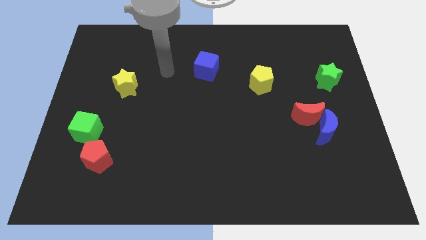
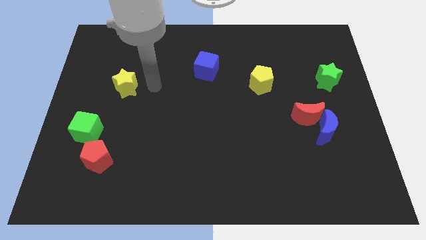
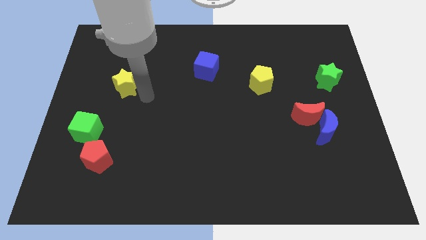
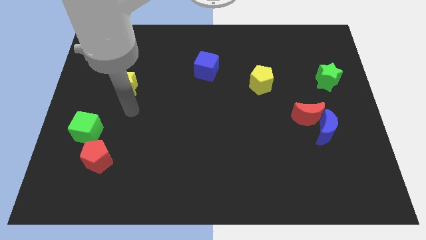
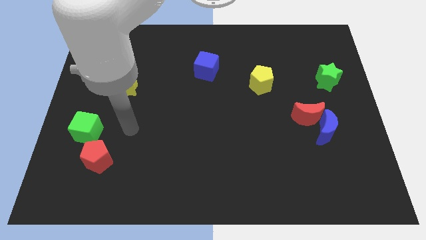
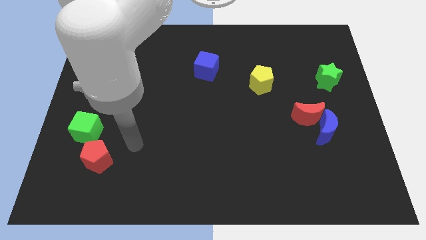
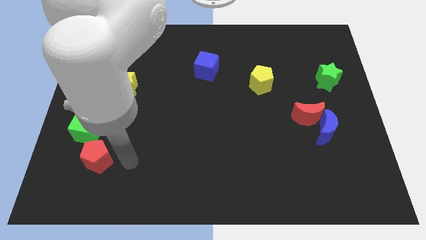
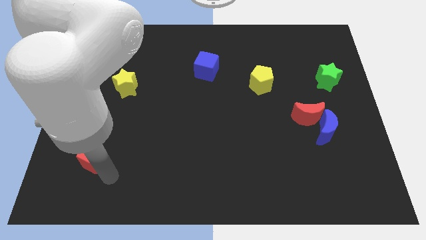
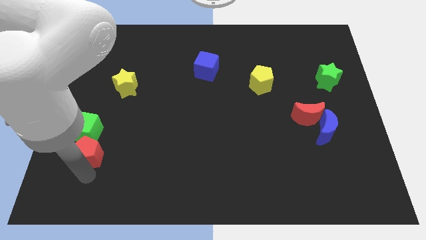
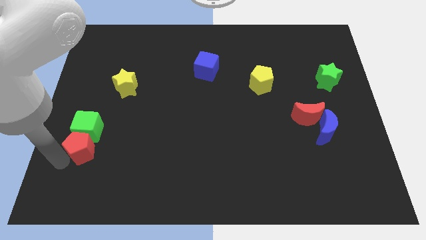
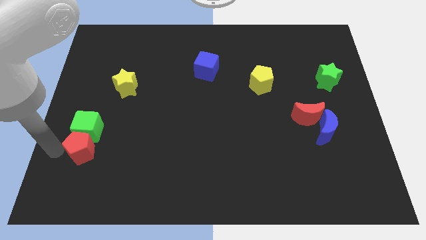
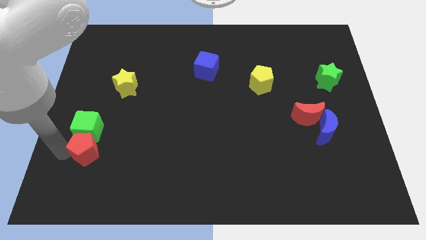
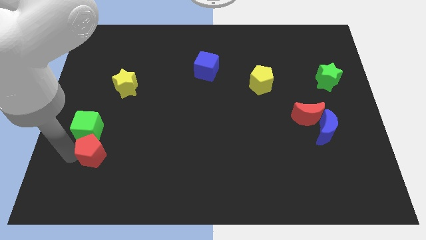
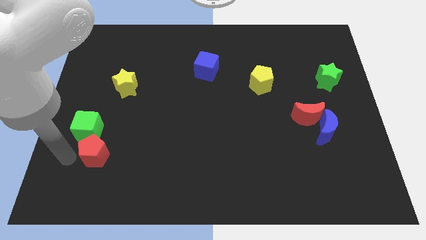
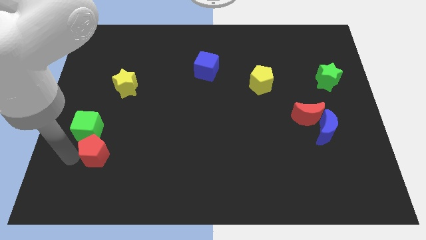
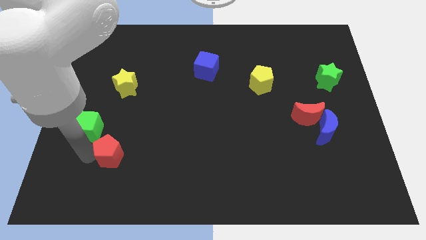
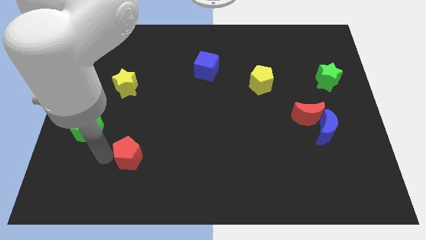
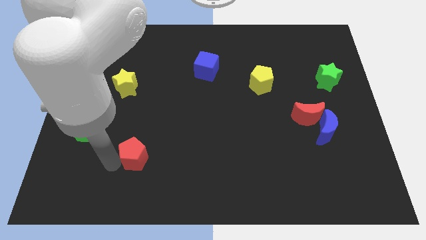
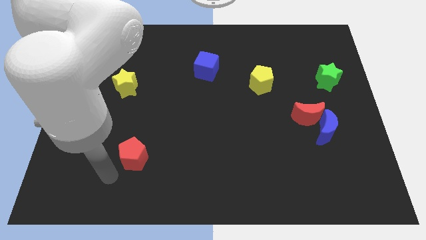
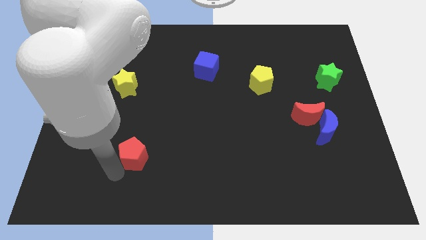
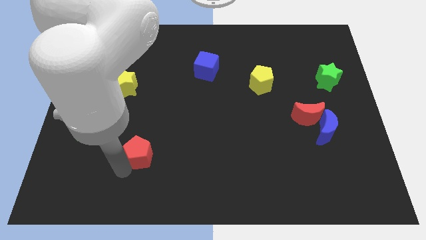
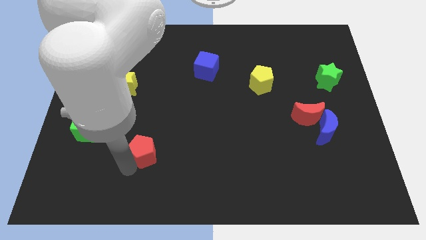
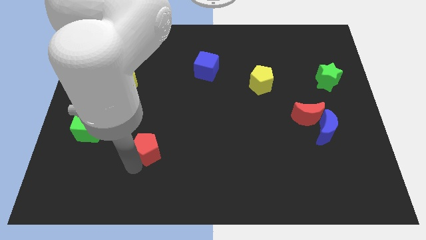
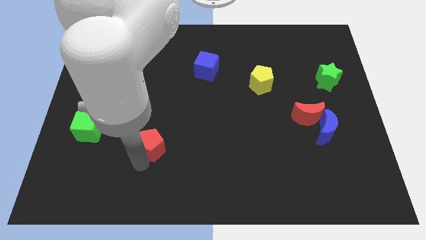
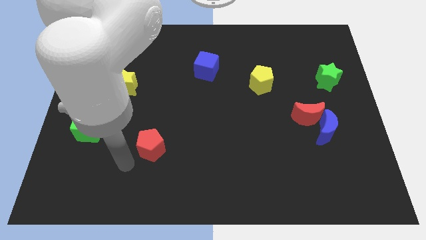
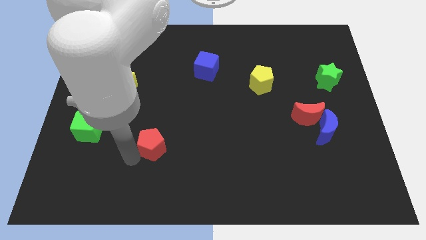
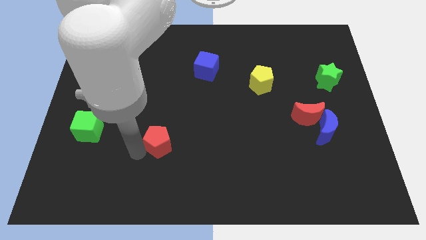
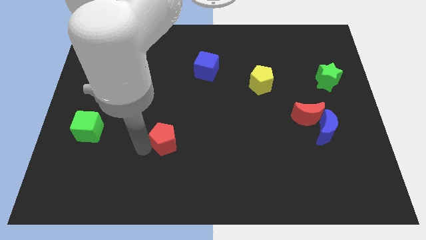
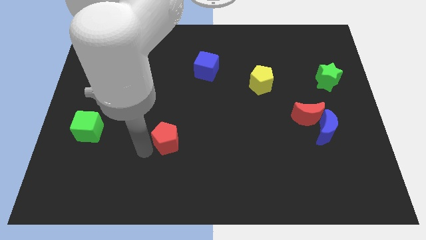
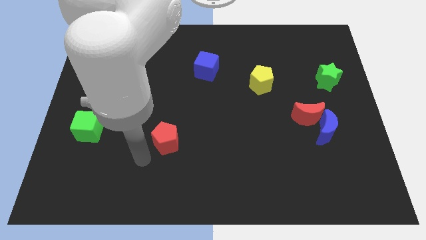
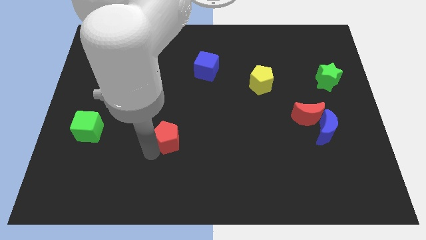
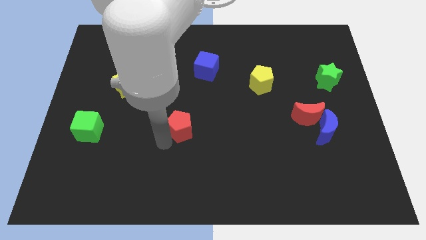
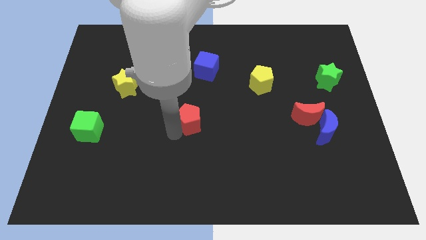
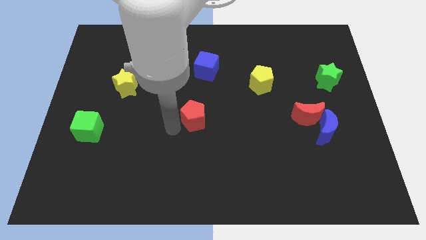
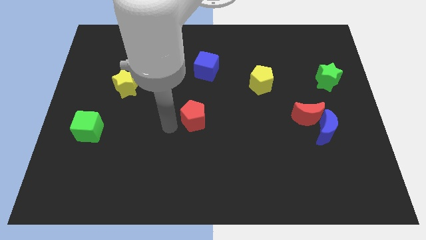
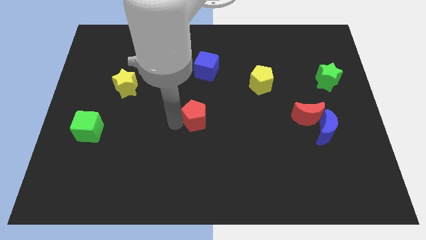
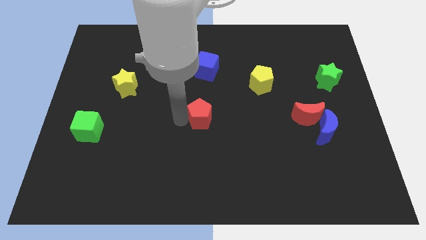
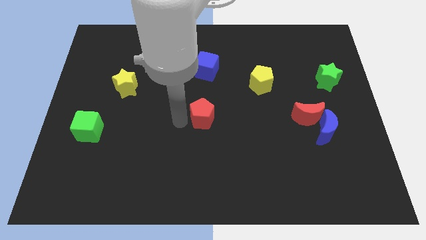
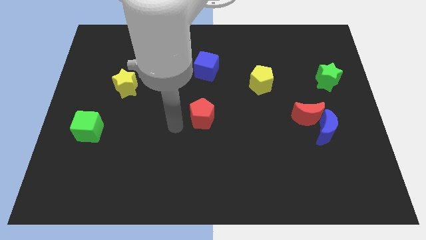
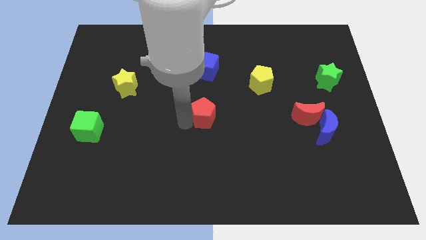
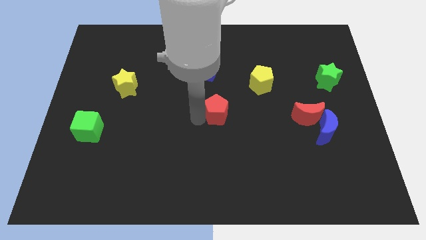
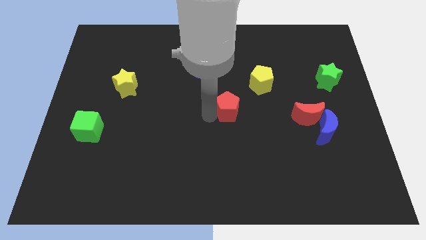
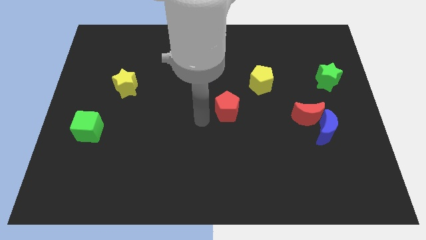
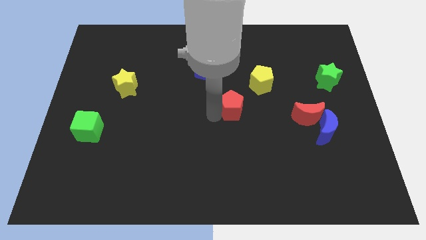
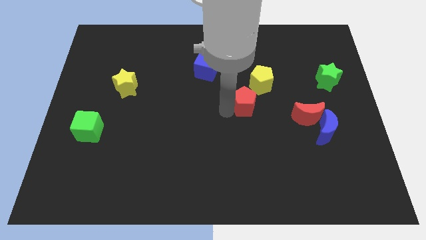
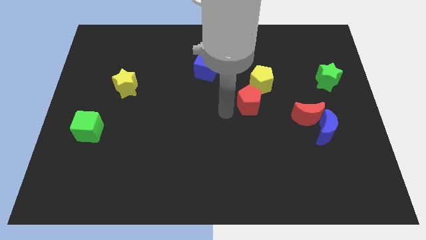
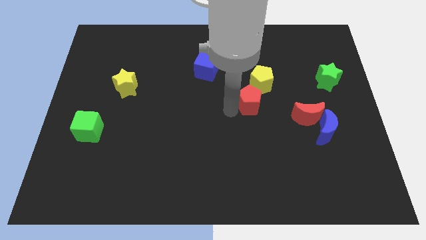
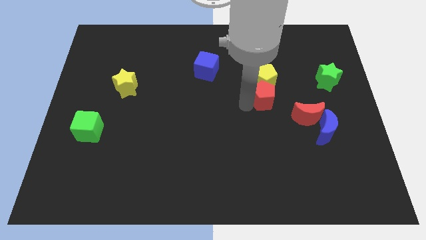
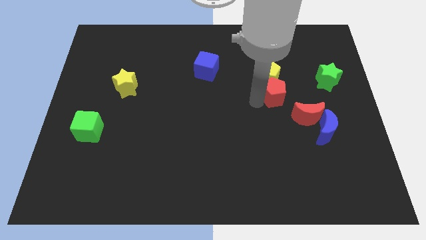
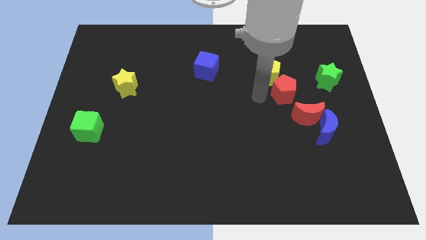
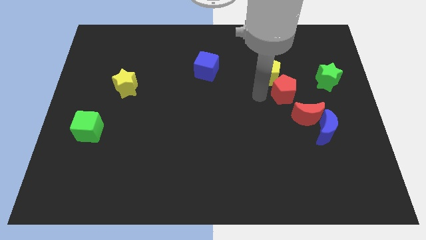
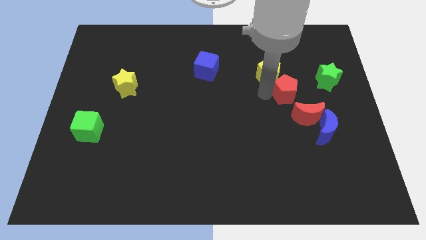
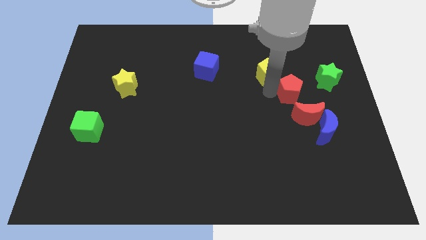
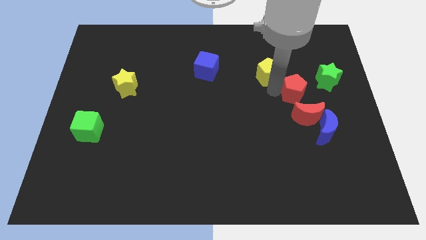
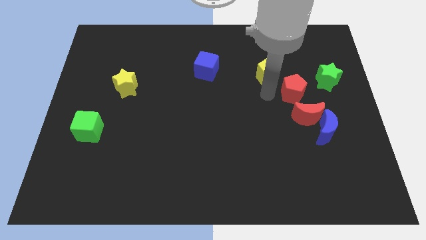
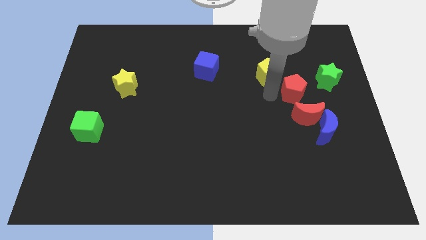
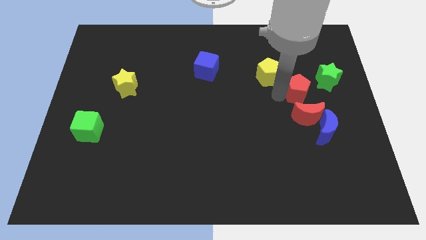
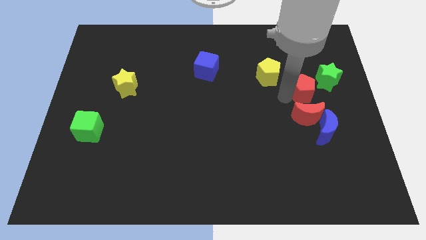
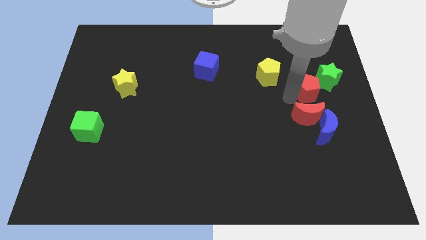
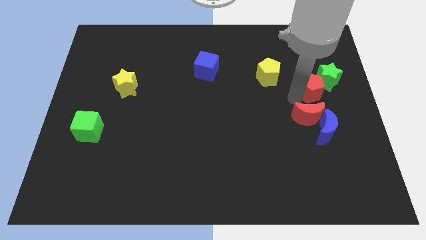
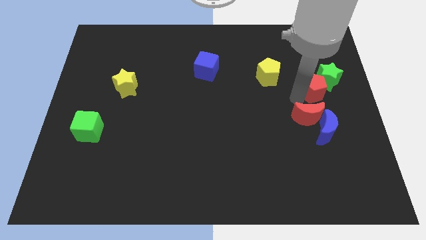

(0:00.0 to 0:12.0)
push the red pentagon to the green star

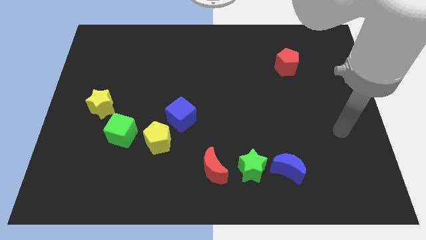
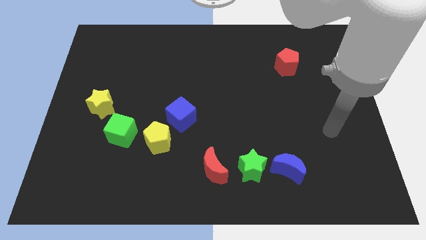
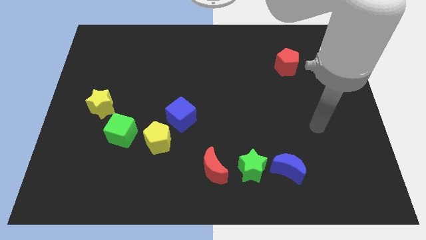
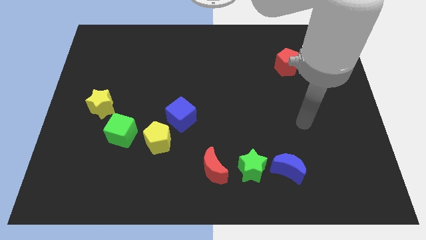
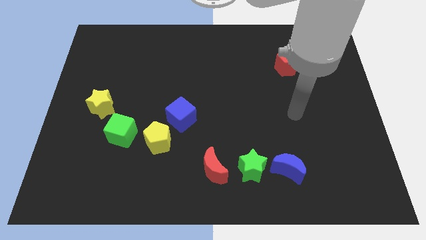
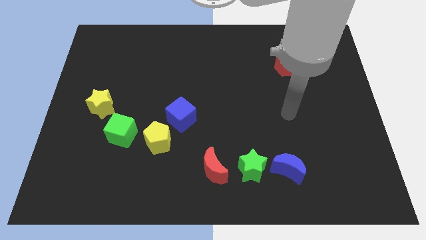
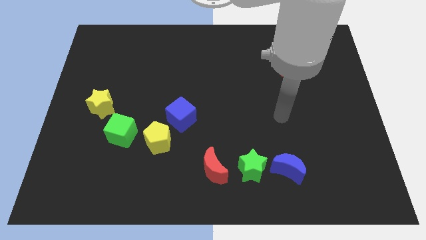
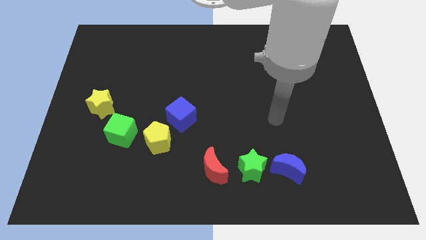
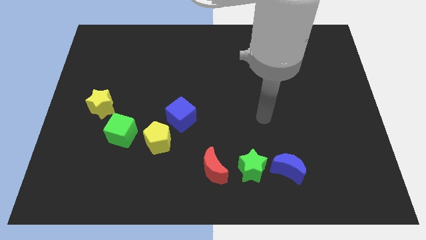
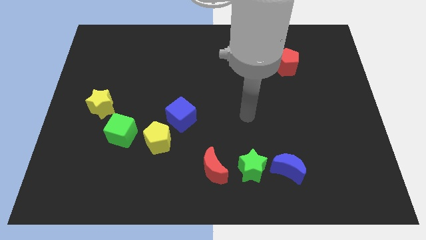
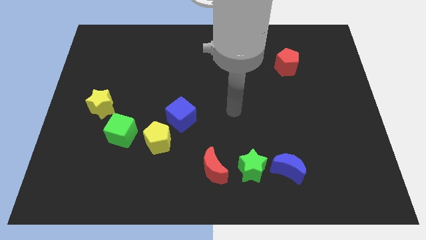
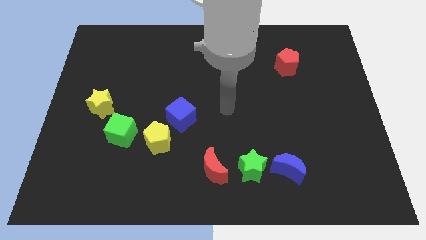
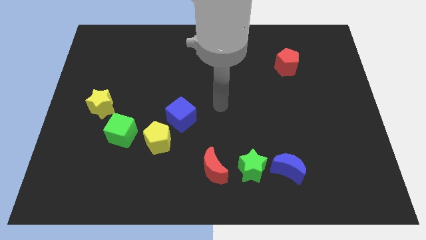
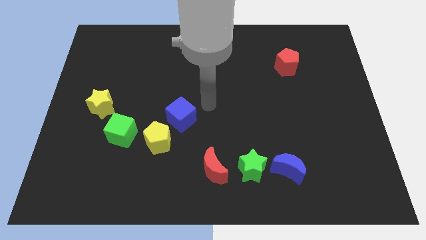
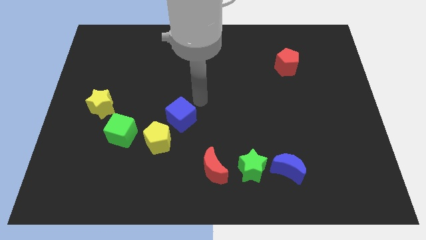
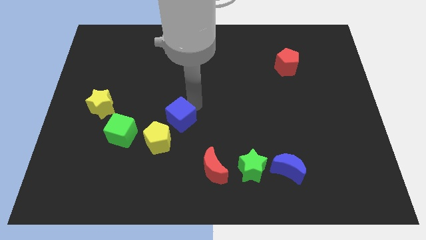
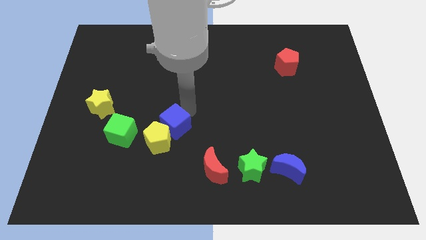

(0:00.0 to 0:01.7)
slide the blue cube next to the yellow pentagon
